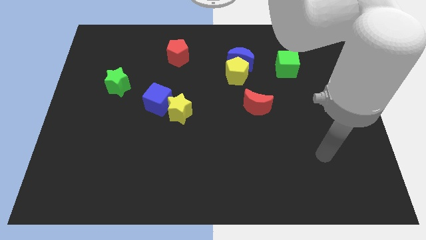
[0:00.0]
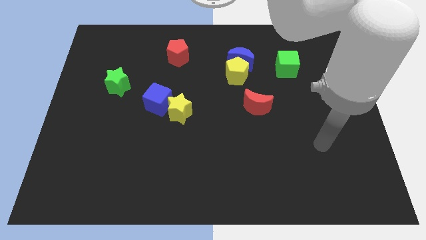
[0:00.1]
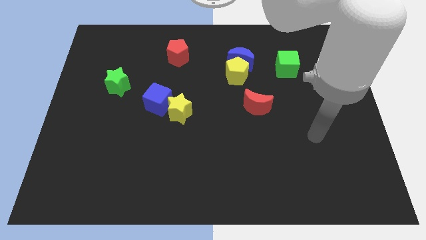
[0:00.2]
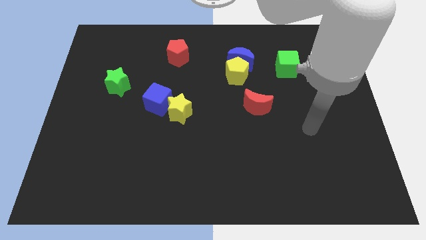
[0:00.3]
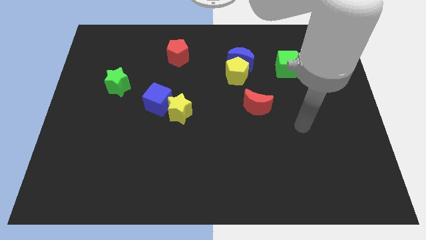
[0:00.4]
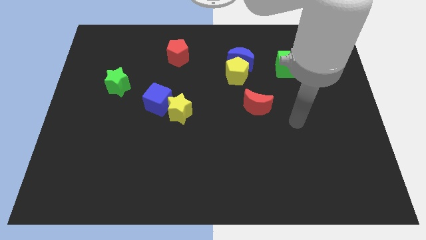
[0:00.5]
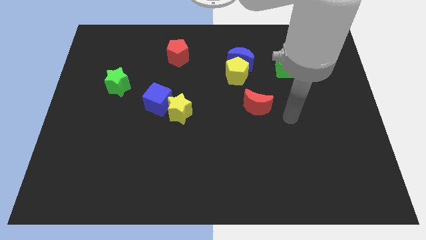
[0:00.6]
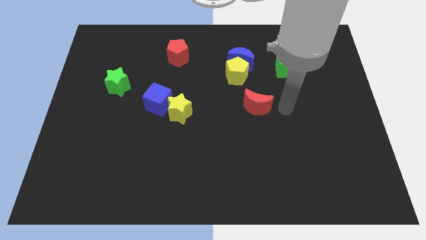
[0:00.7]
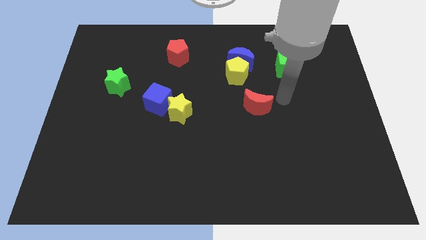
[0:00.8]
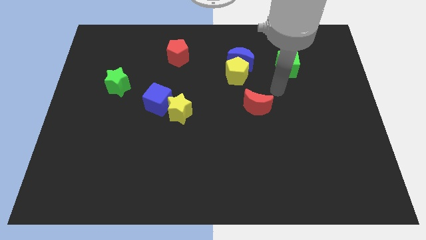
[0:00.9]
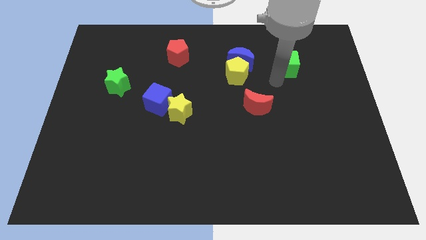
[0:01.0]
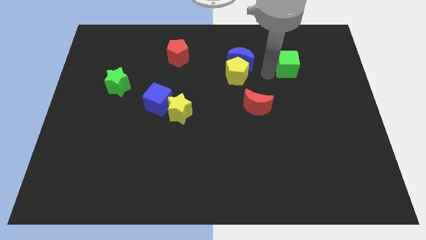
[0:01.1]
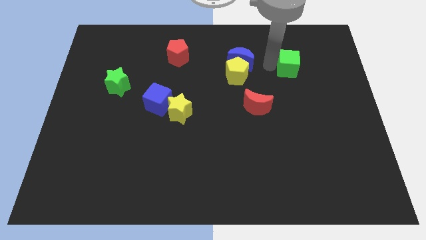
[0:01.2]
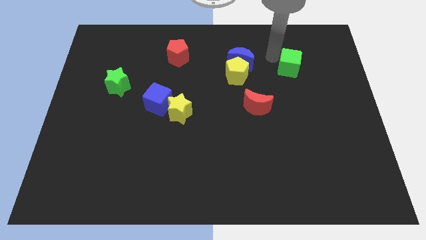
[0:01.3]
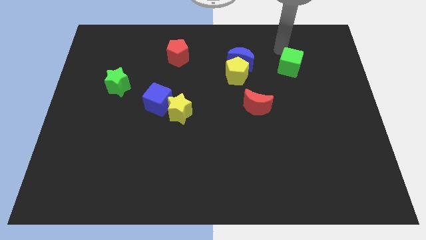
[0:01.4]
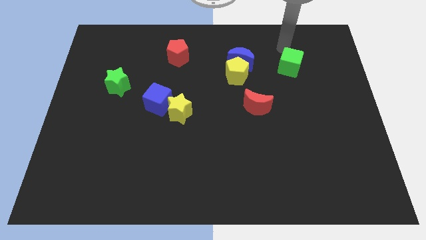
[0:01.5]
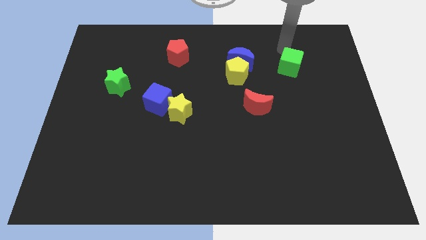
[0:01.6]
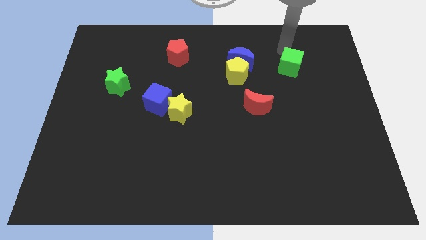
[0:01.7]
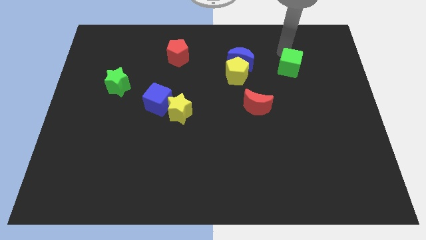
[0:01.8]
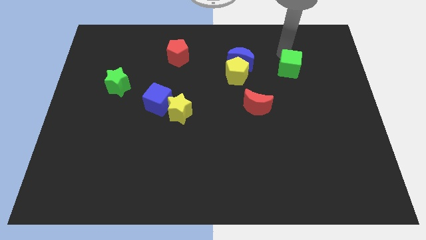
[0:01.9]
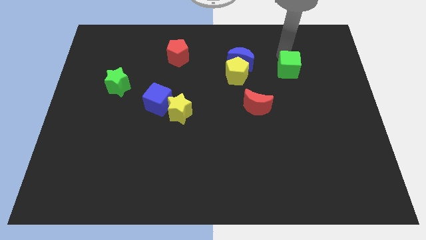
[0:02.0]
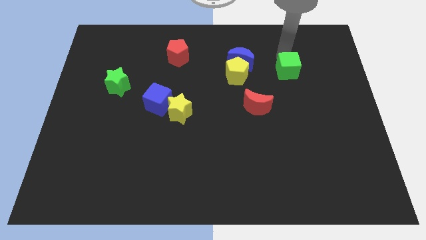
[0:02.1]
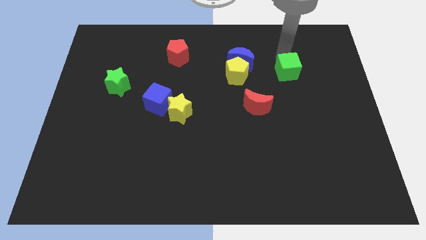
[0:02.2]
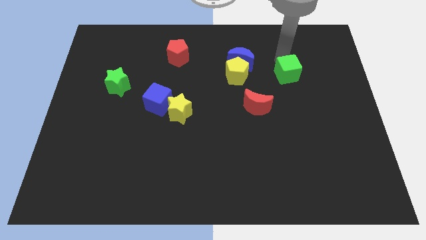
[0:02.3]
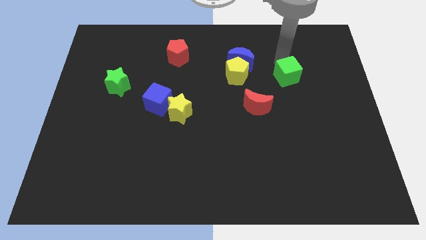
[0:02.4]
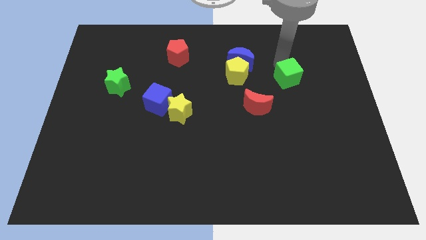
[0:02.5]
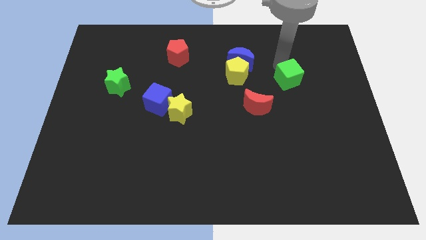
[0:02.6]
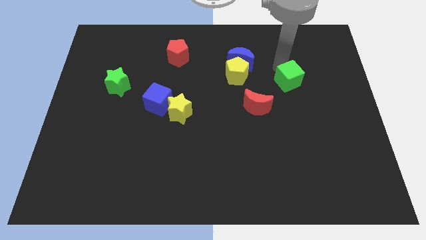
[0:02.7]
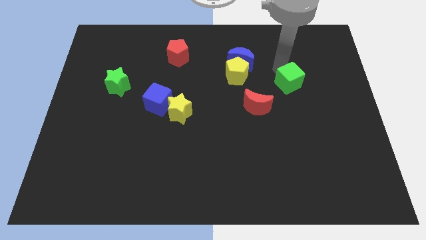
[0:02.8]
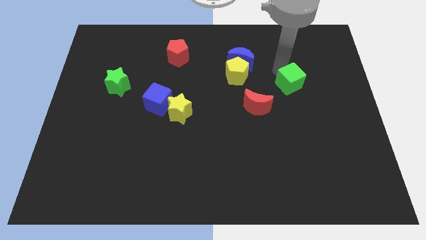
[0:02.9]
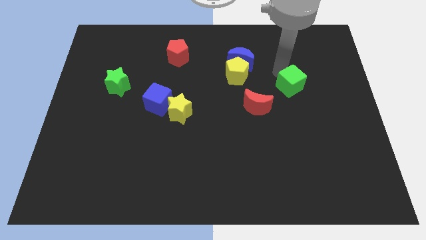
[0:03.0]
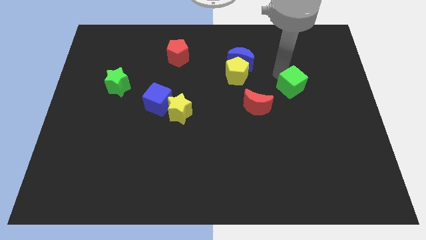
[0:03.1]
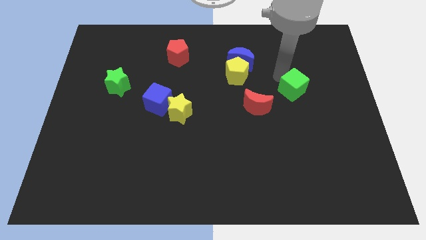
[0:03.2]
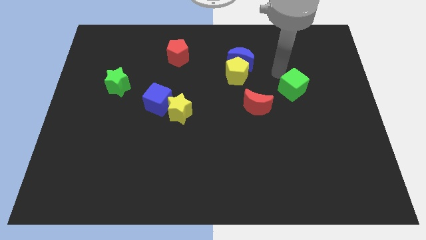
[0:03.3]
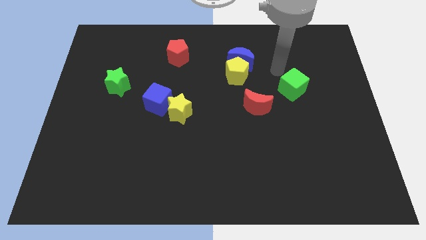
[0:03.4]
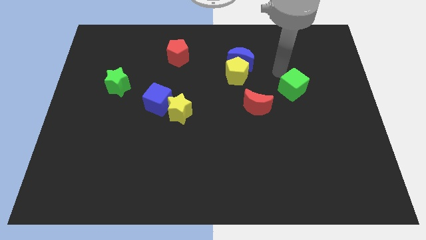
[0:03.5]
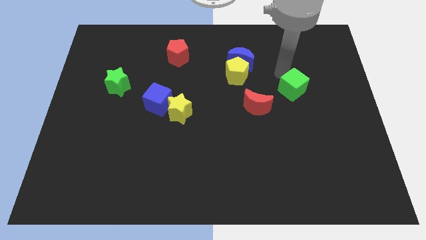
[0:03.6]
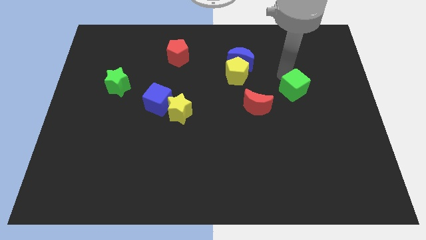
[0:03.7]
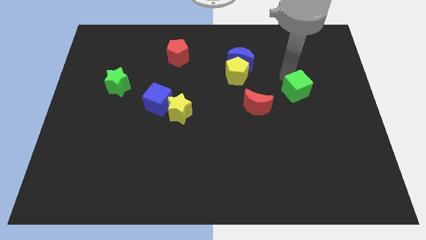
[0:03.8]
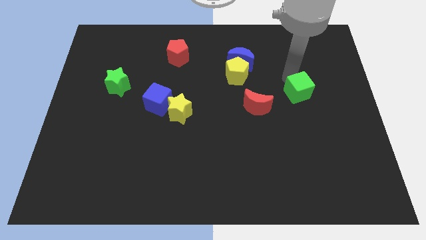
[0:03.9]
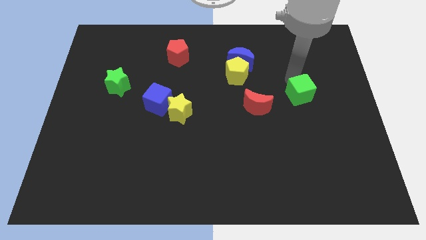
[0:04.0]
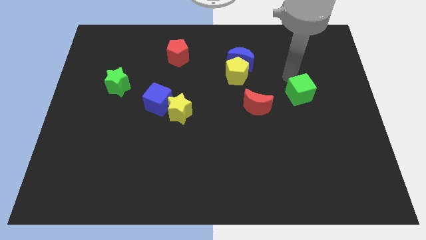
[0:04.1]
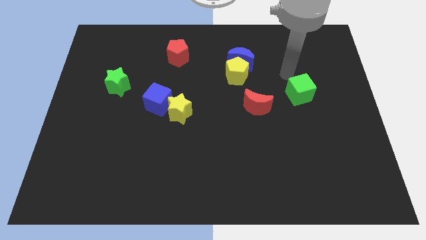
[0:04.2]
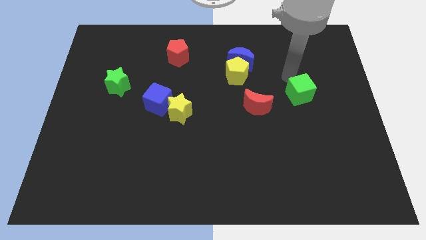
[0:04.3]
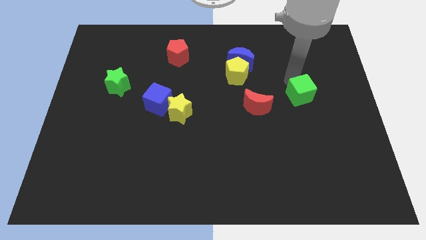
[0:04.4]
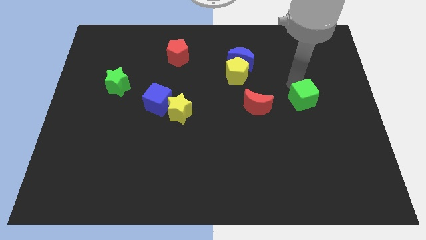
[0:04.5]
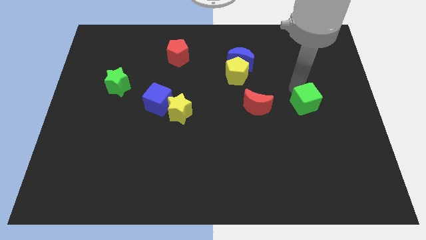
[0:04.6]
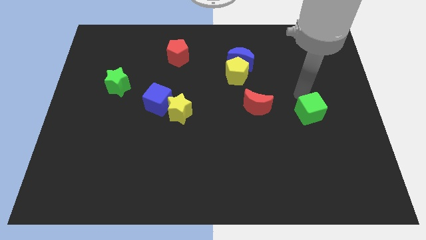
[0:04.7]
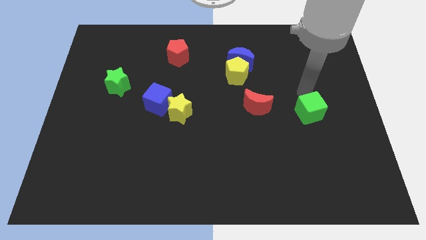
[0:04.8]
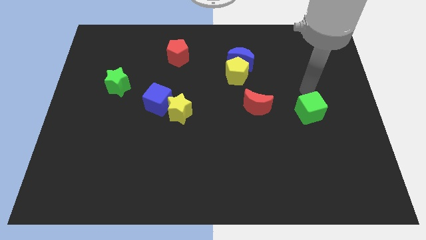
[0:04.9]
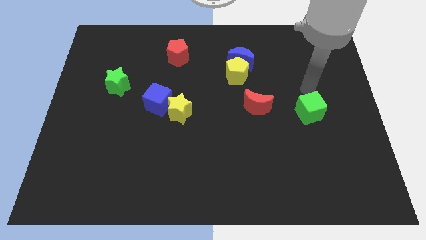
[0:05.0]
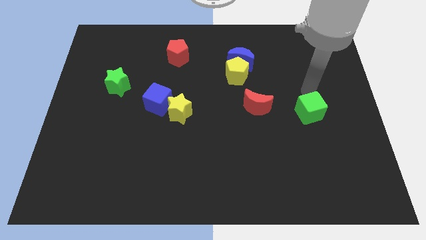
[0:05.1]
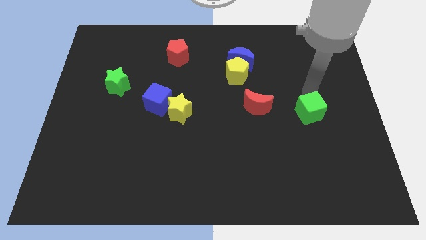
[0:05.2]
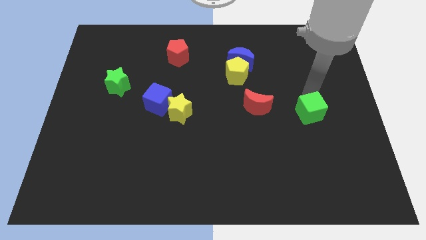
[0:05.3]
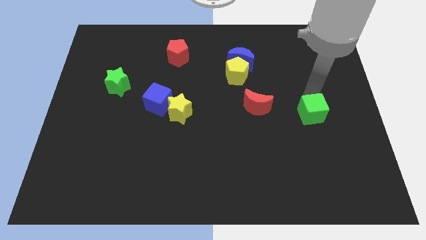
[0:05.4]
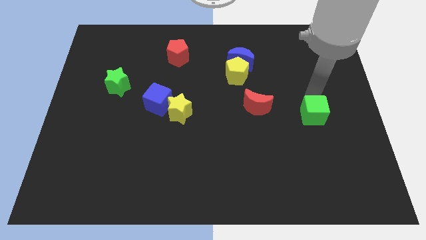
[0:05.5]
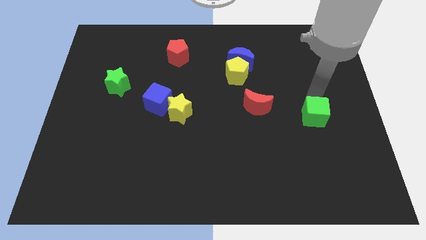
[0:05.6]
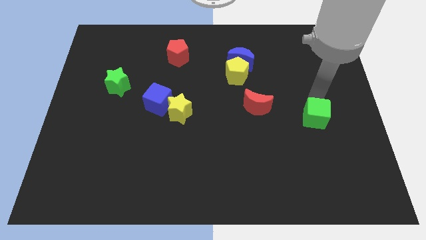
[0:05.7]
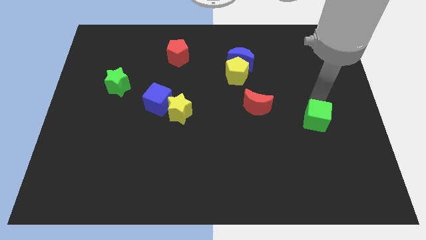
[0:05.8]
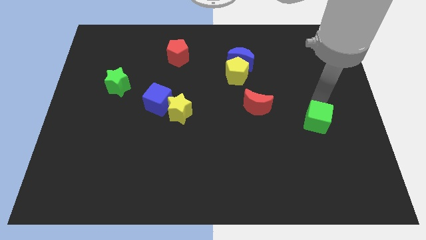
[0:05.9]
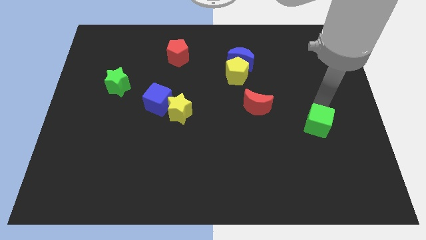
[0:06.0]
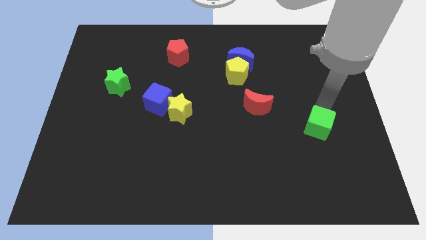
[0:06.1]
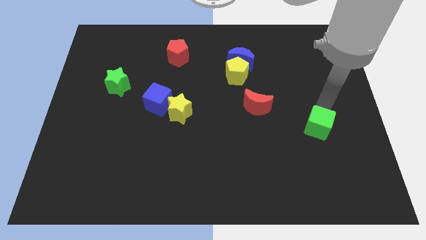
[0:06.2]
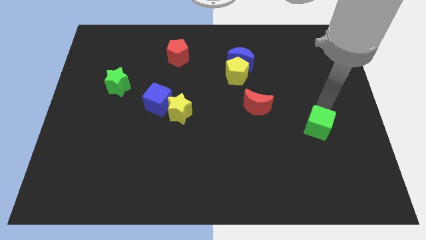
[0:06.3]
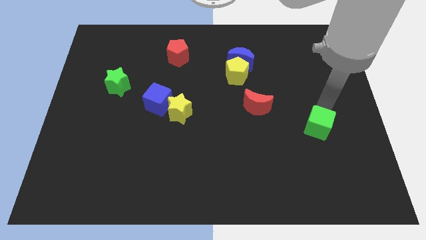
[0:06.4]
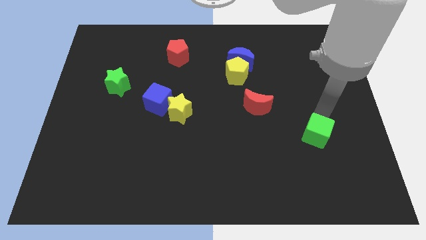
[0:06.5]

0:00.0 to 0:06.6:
push the green cube down

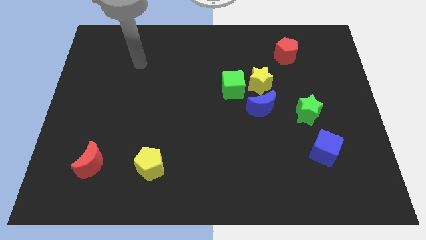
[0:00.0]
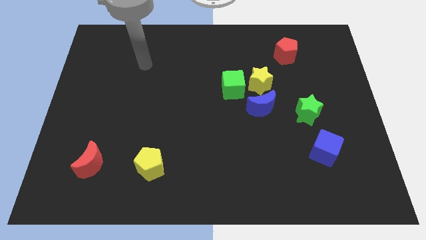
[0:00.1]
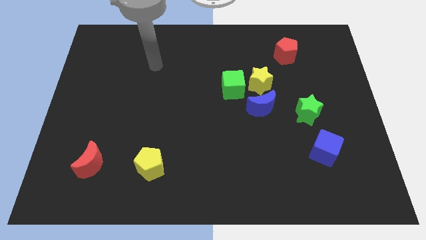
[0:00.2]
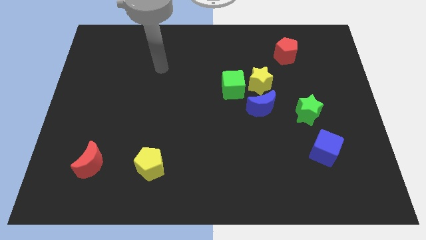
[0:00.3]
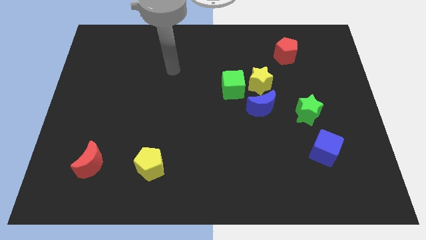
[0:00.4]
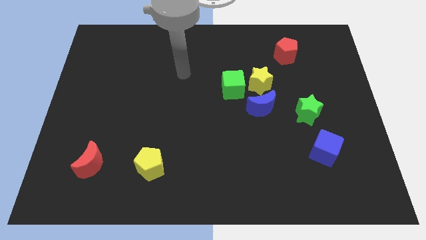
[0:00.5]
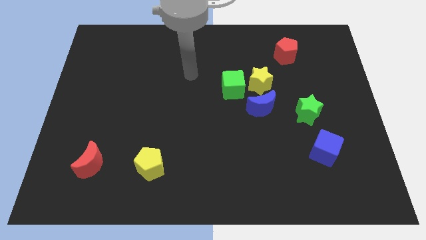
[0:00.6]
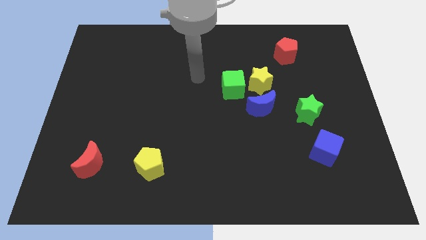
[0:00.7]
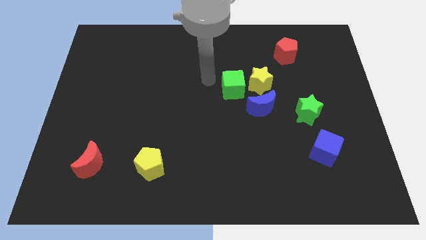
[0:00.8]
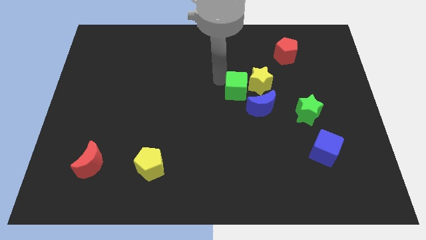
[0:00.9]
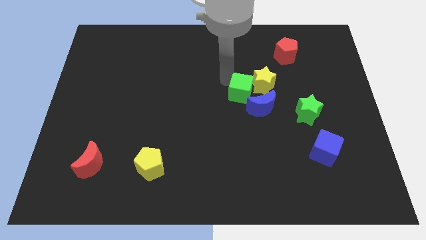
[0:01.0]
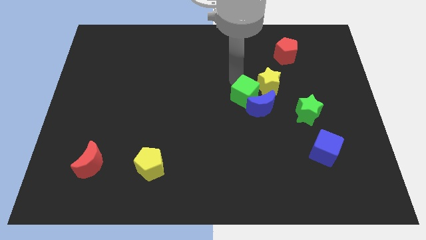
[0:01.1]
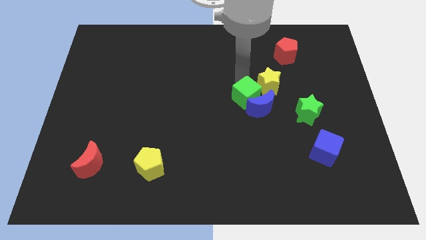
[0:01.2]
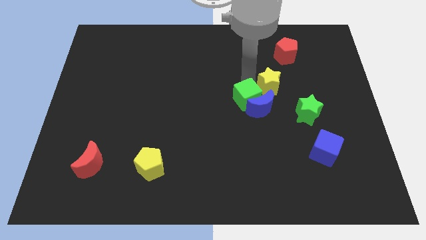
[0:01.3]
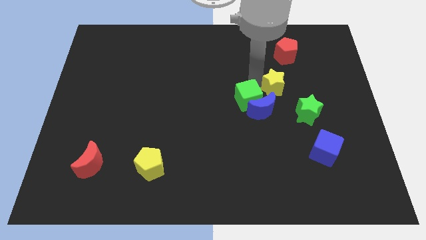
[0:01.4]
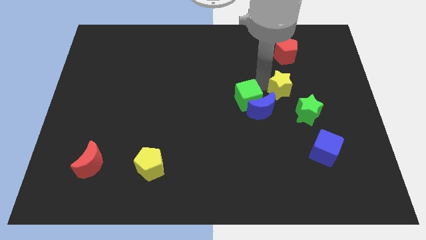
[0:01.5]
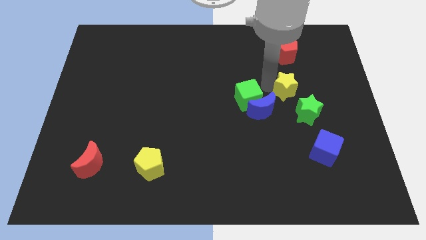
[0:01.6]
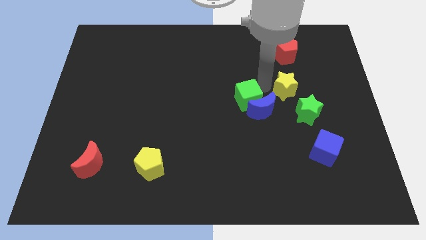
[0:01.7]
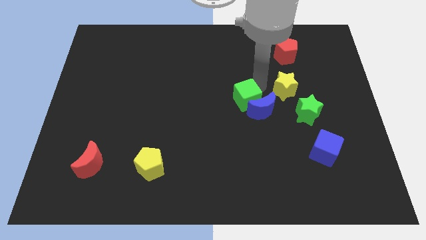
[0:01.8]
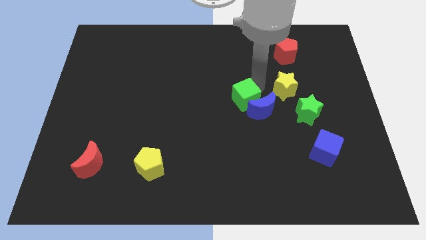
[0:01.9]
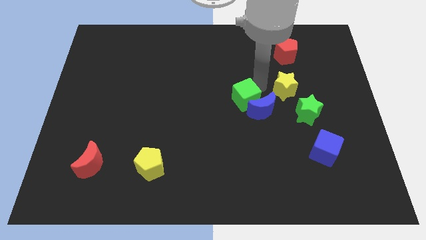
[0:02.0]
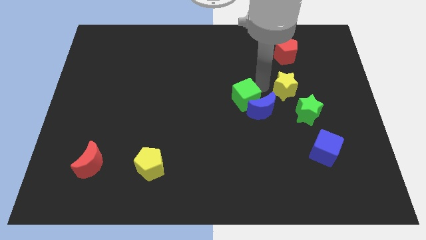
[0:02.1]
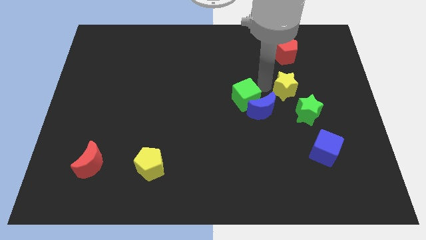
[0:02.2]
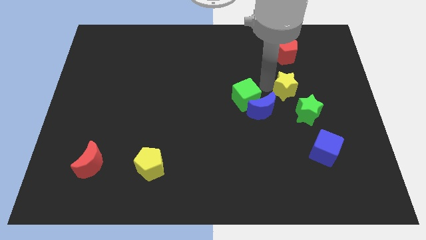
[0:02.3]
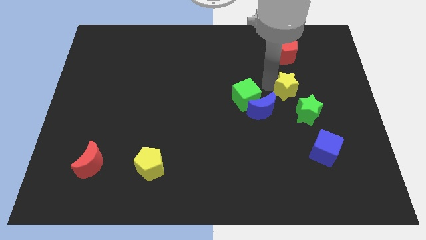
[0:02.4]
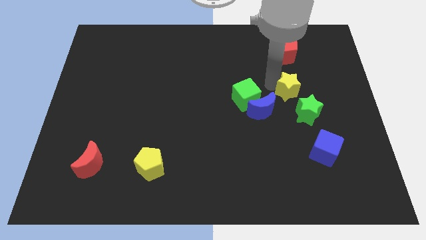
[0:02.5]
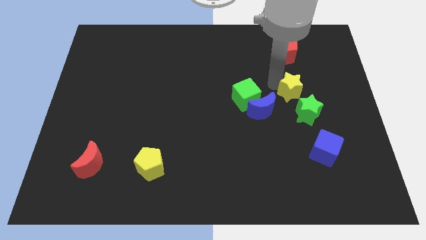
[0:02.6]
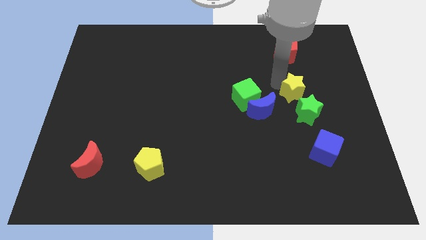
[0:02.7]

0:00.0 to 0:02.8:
slightly slide the yellow star downwards and then to the right
